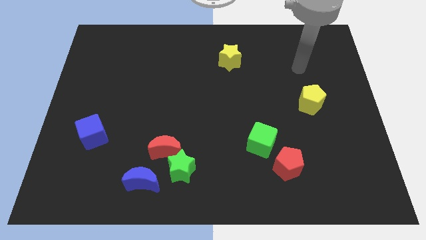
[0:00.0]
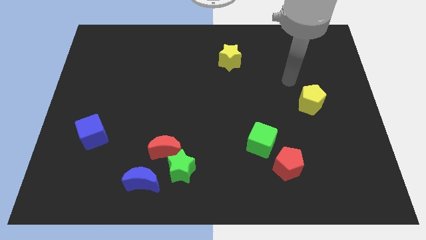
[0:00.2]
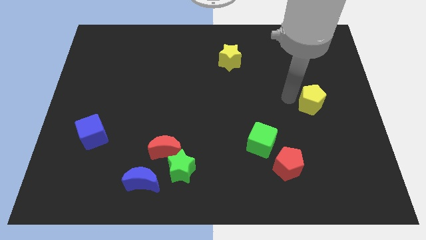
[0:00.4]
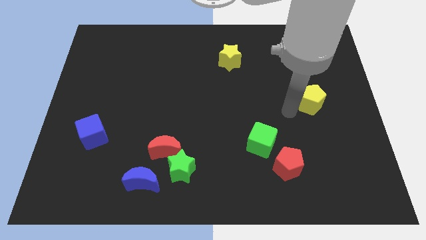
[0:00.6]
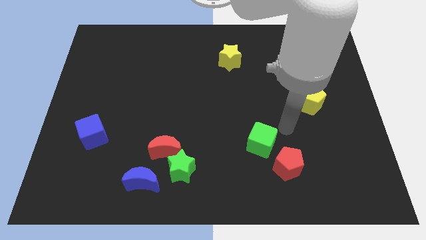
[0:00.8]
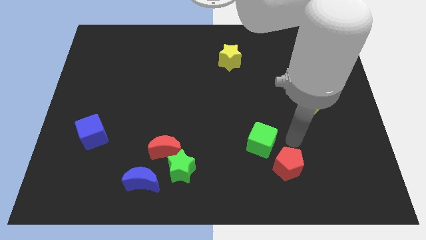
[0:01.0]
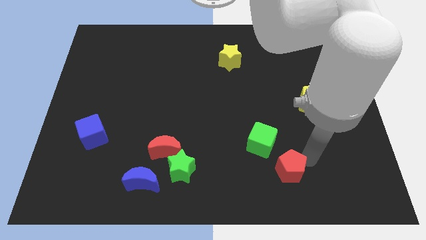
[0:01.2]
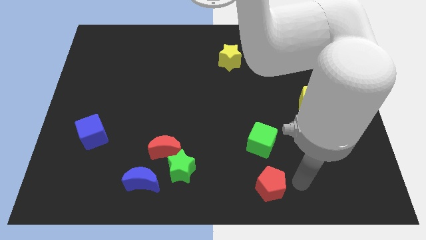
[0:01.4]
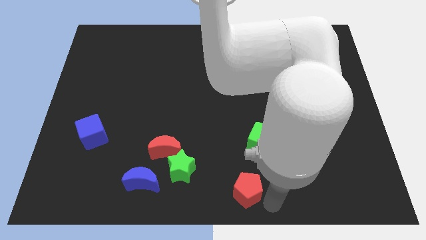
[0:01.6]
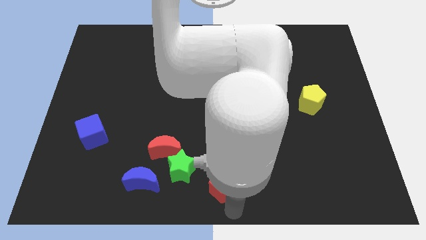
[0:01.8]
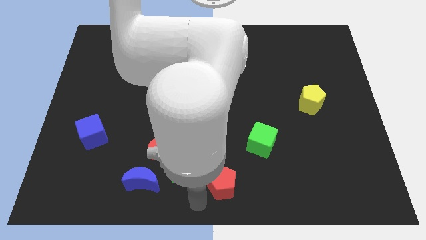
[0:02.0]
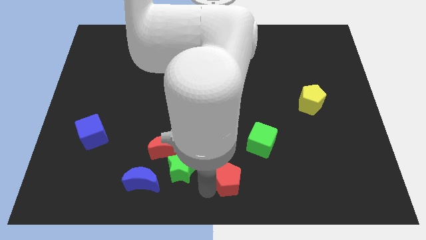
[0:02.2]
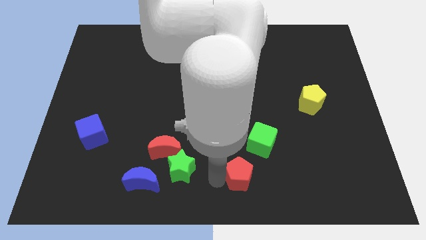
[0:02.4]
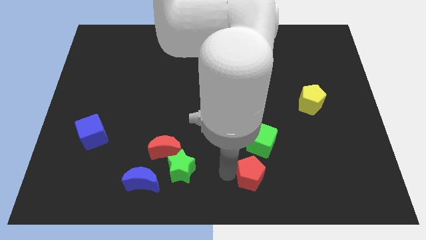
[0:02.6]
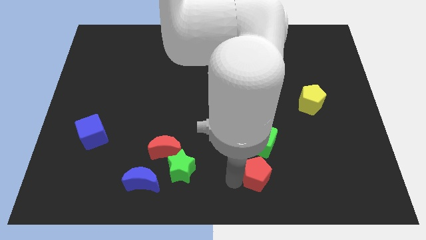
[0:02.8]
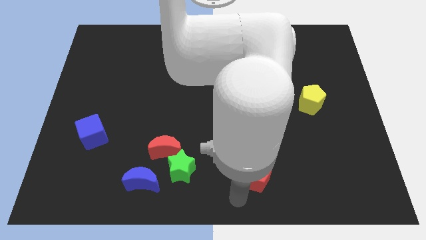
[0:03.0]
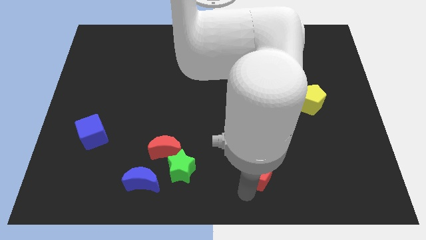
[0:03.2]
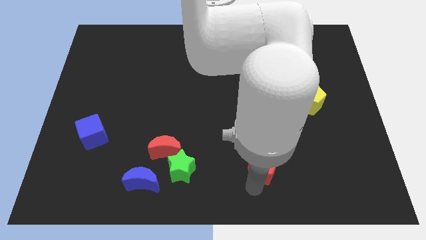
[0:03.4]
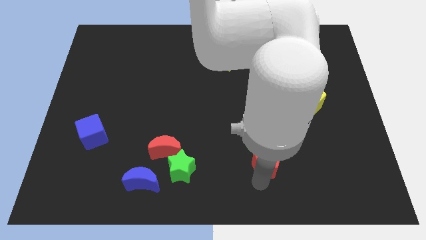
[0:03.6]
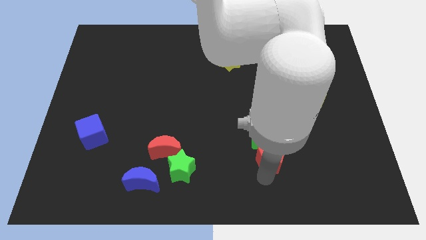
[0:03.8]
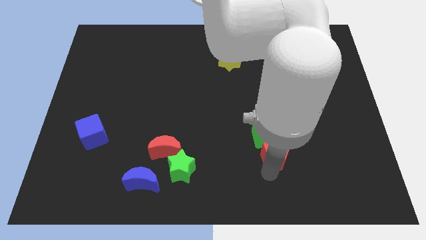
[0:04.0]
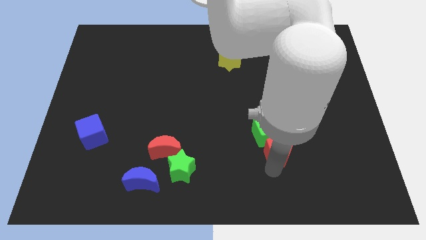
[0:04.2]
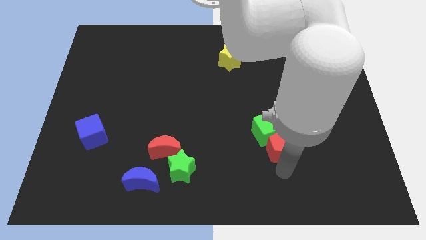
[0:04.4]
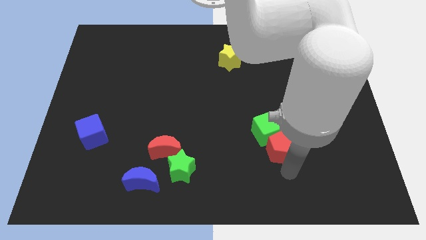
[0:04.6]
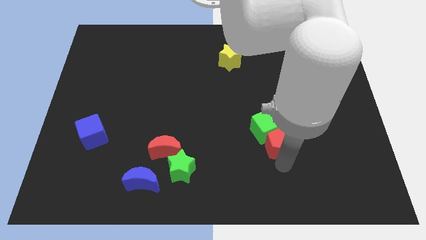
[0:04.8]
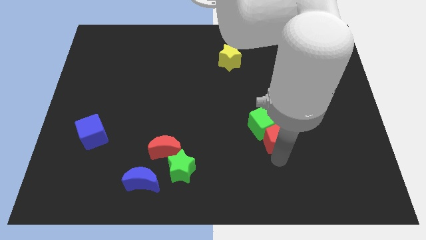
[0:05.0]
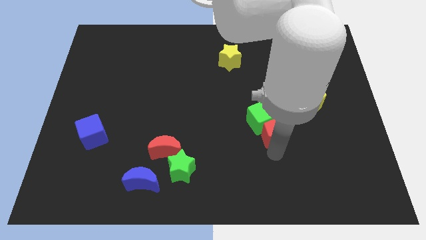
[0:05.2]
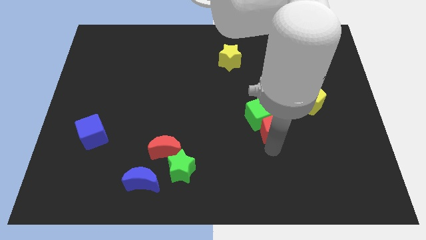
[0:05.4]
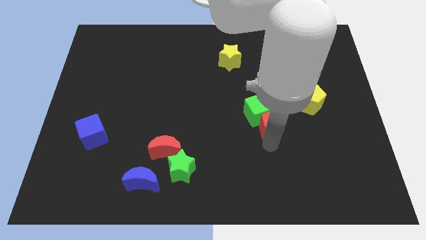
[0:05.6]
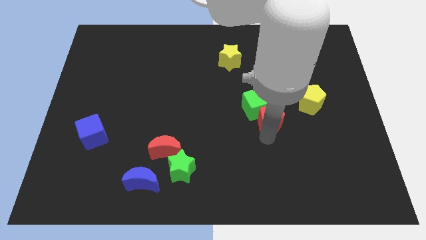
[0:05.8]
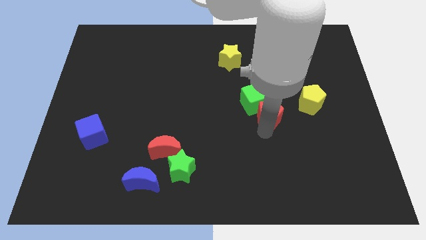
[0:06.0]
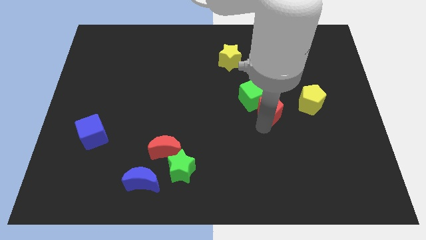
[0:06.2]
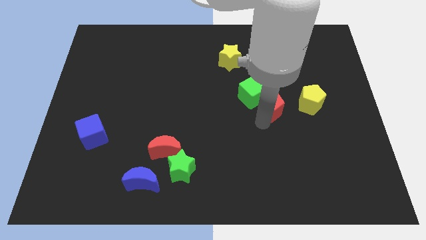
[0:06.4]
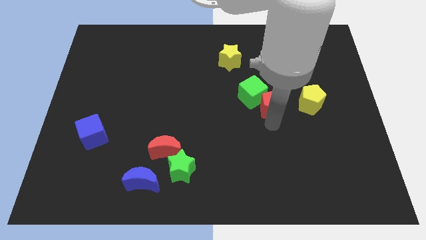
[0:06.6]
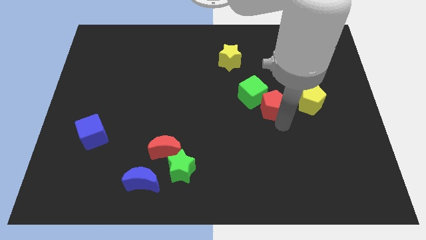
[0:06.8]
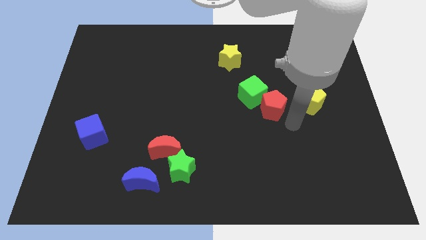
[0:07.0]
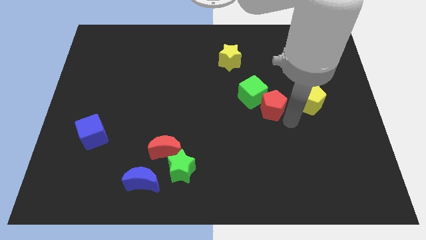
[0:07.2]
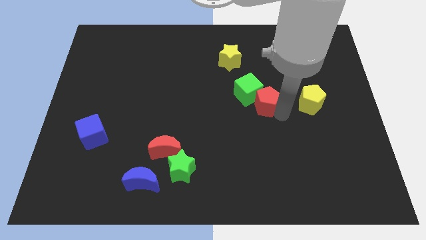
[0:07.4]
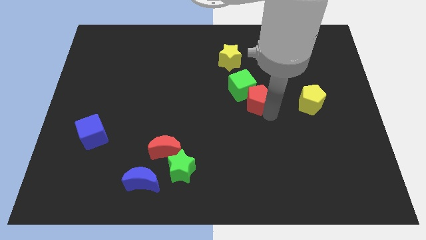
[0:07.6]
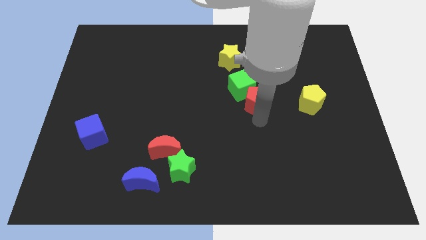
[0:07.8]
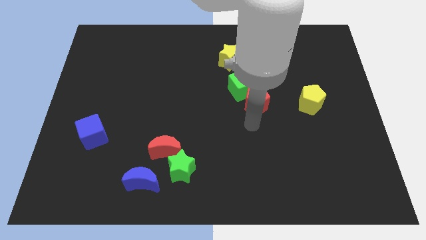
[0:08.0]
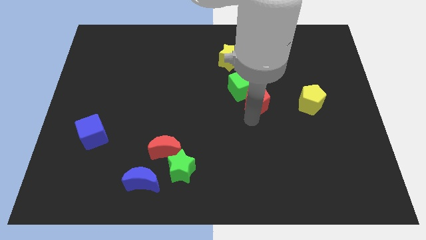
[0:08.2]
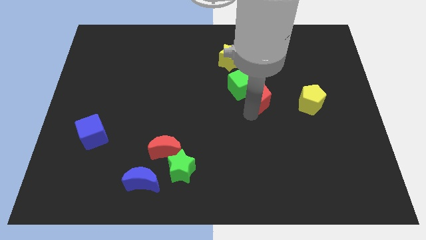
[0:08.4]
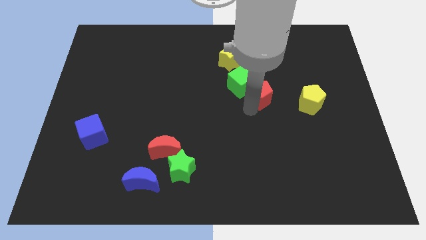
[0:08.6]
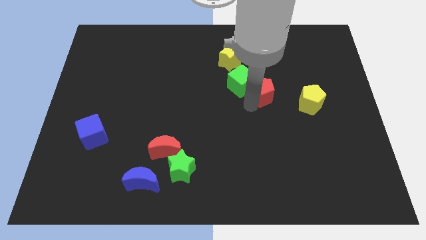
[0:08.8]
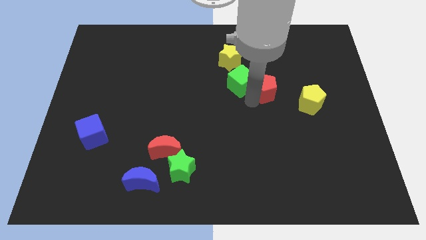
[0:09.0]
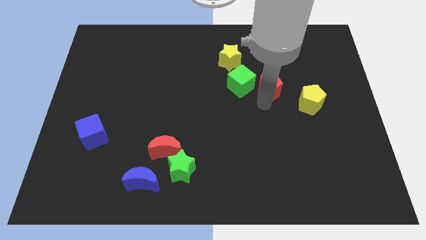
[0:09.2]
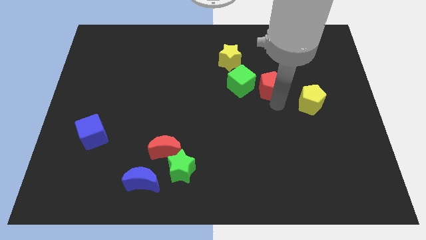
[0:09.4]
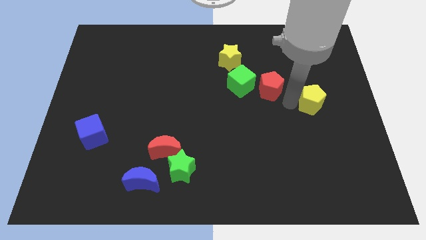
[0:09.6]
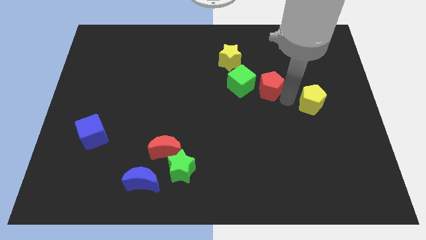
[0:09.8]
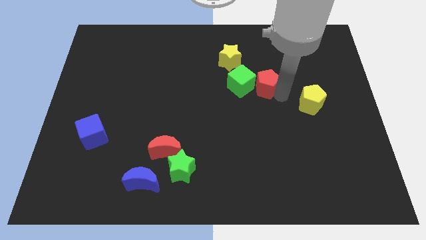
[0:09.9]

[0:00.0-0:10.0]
slide the red pentagon to the bottom right of the yellow star

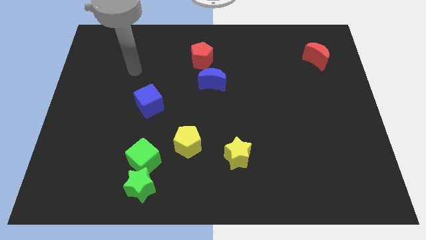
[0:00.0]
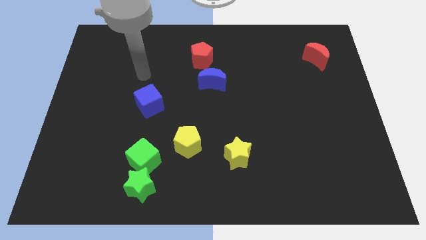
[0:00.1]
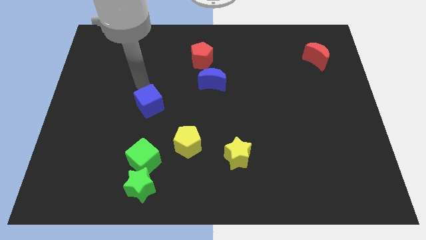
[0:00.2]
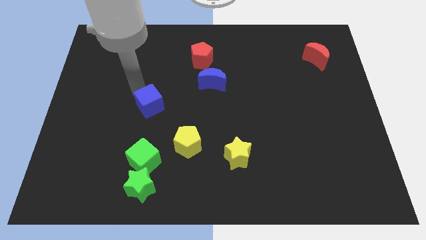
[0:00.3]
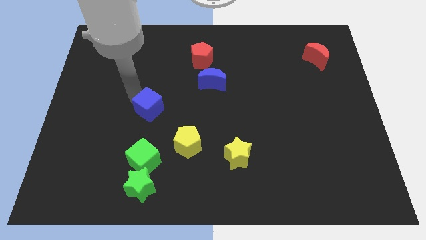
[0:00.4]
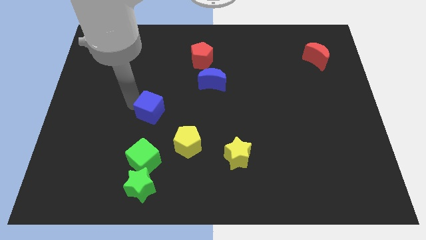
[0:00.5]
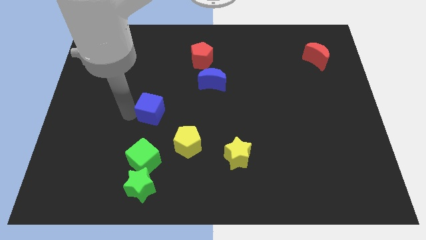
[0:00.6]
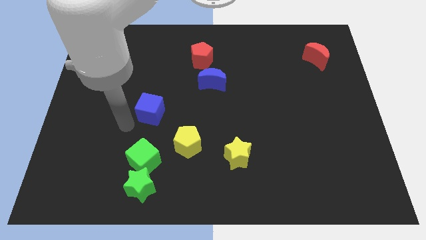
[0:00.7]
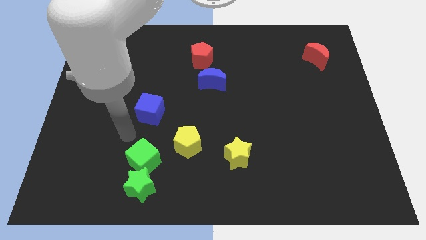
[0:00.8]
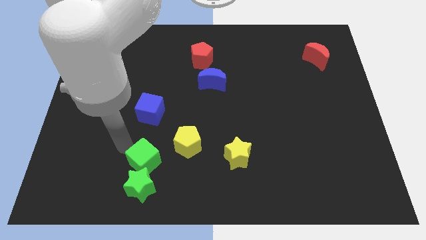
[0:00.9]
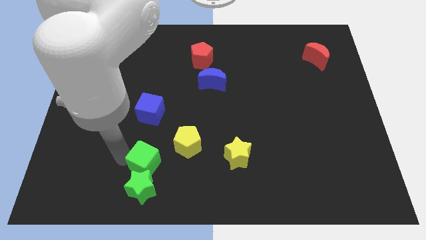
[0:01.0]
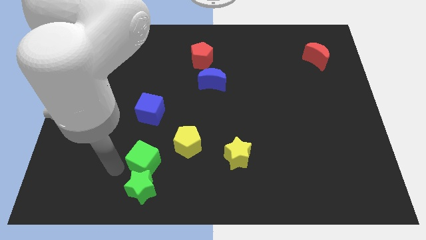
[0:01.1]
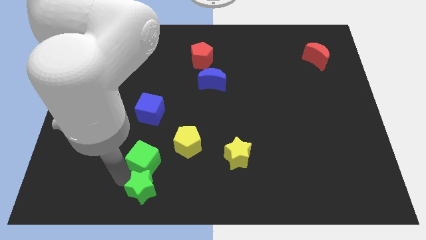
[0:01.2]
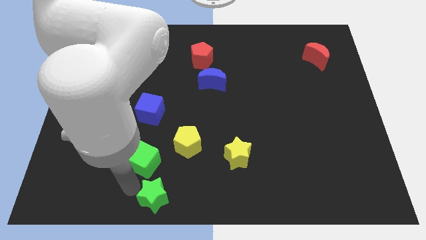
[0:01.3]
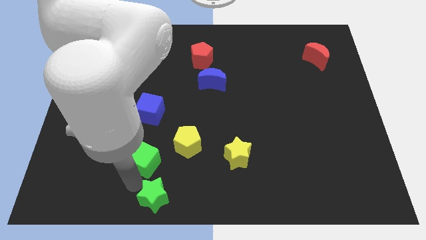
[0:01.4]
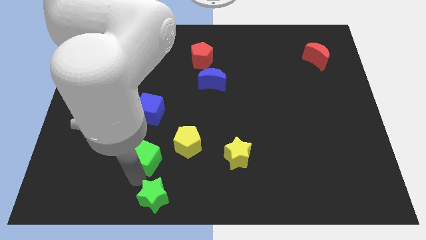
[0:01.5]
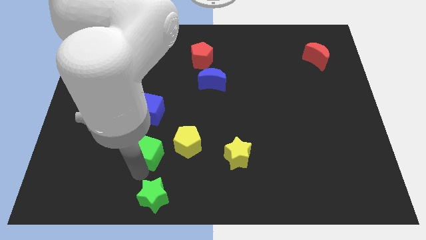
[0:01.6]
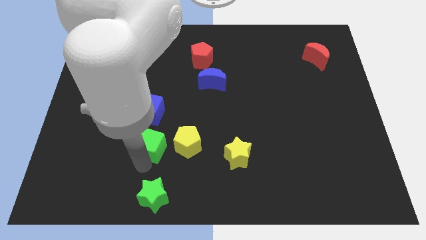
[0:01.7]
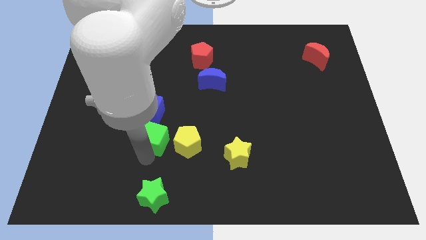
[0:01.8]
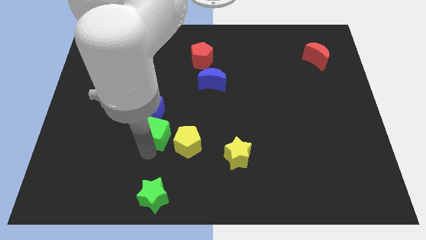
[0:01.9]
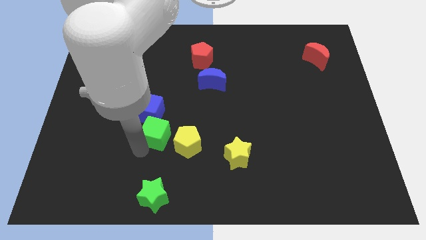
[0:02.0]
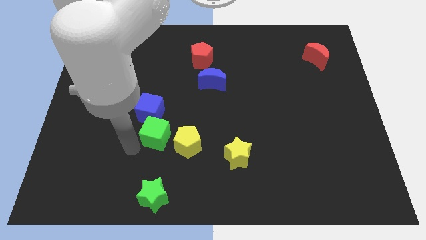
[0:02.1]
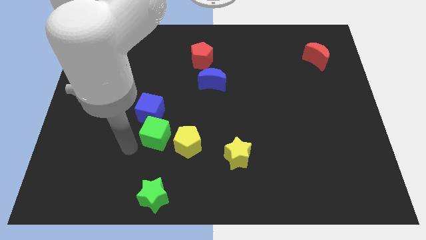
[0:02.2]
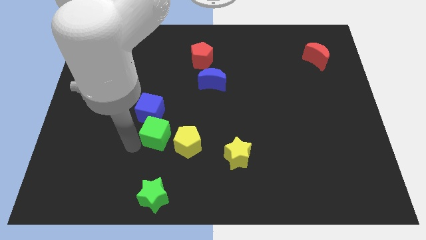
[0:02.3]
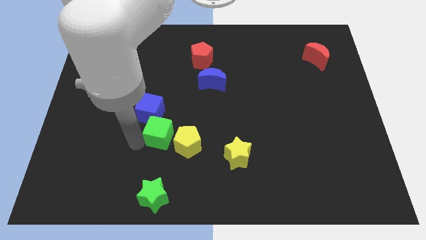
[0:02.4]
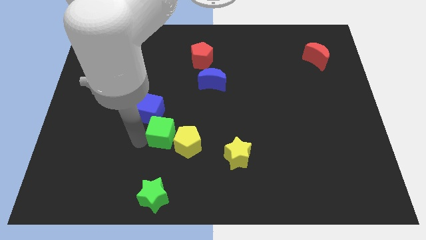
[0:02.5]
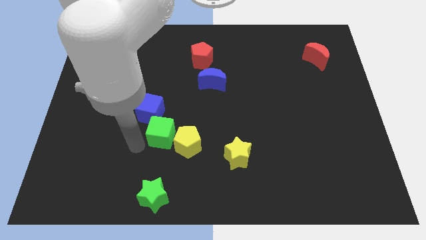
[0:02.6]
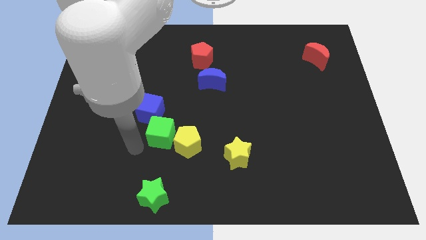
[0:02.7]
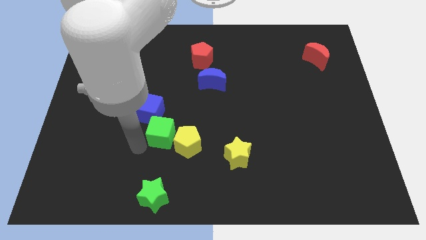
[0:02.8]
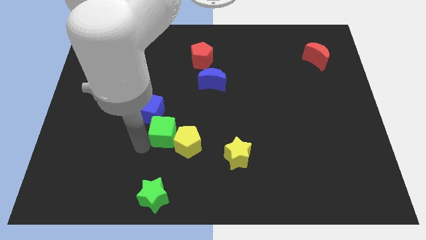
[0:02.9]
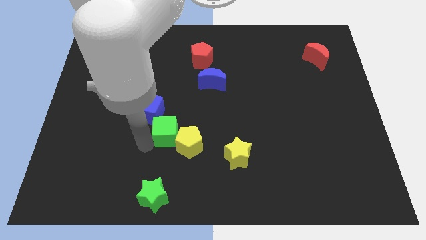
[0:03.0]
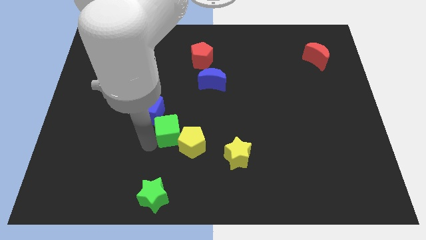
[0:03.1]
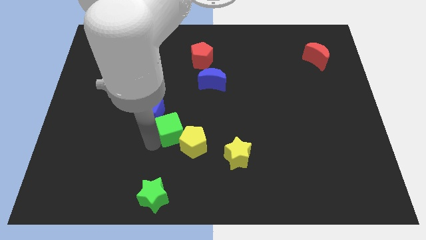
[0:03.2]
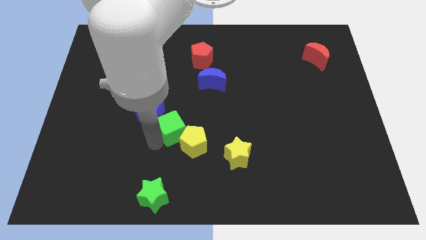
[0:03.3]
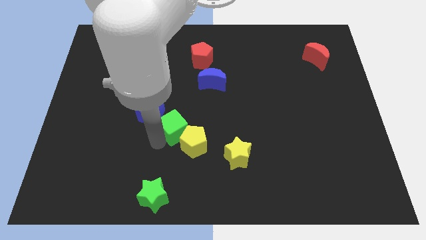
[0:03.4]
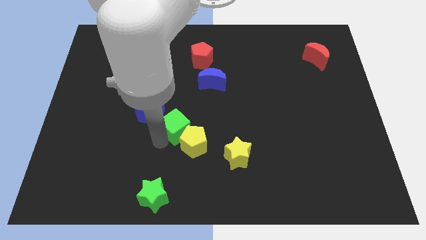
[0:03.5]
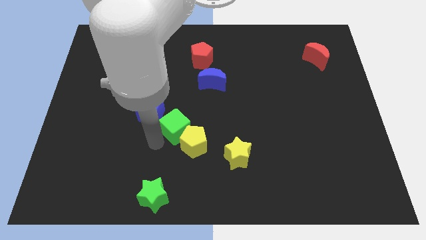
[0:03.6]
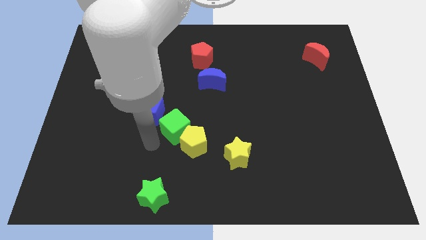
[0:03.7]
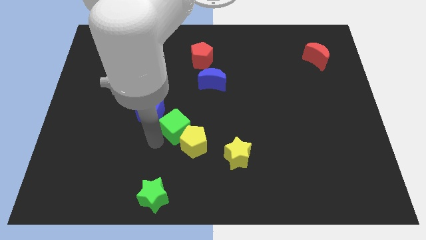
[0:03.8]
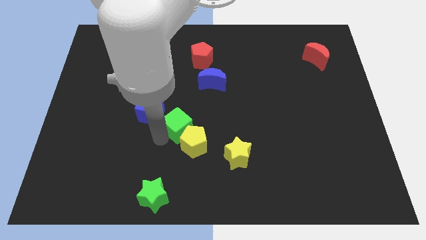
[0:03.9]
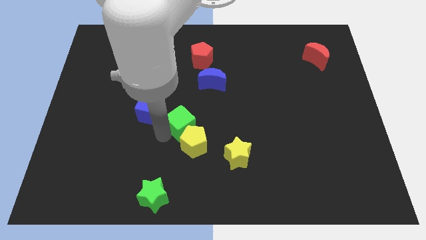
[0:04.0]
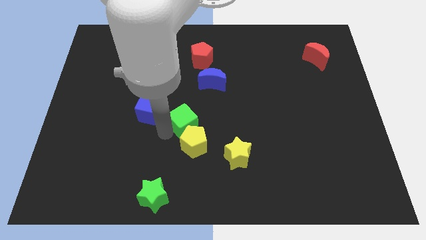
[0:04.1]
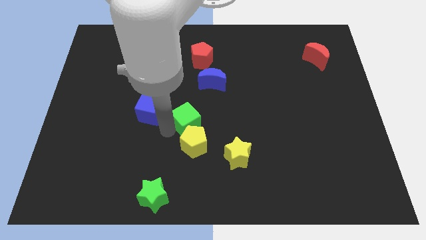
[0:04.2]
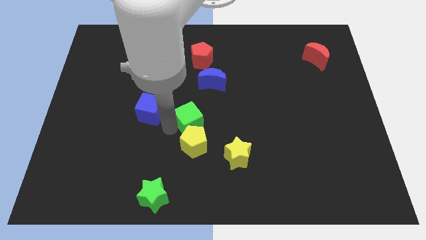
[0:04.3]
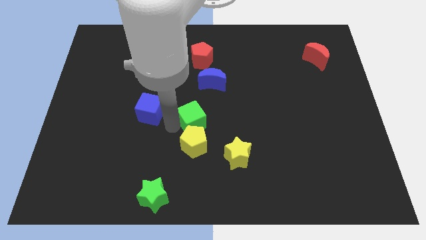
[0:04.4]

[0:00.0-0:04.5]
put the green cube below the blue moon
